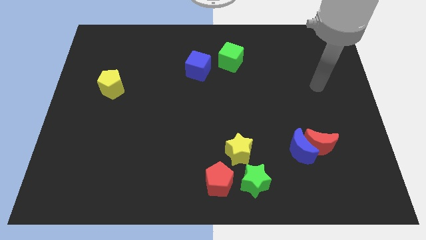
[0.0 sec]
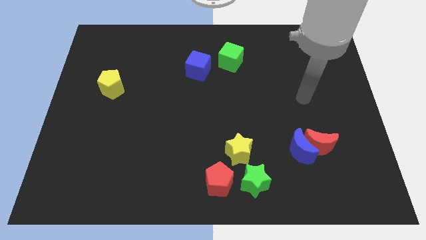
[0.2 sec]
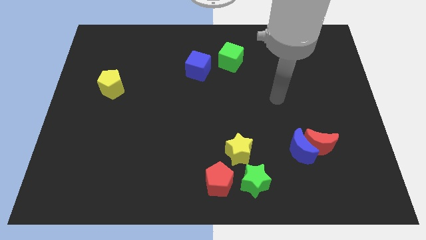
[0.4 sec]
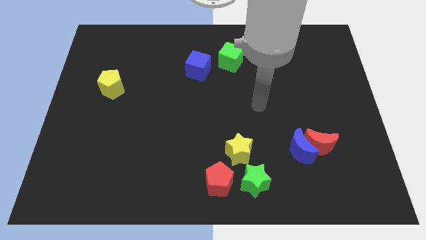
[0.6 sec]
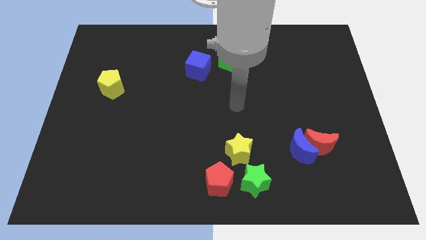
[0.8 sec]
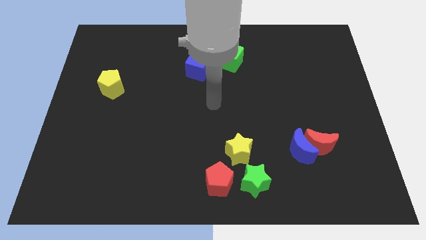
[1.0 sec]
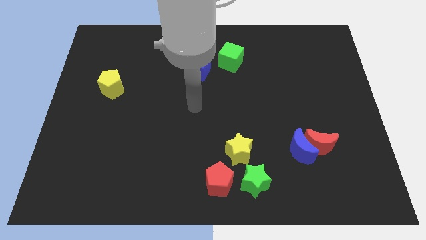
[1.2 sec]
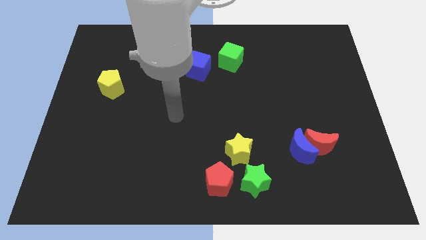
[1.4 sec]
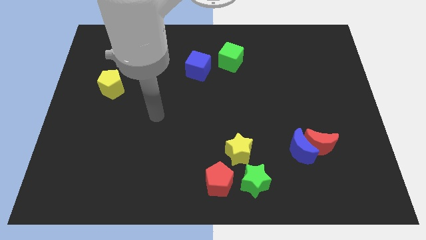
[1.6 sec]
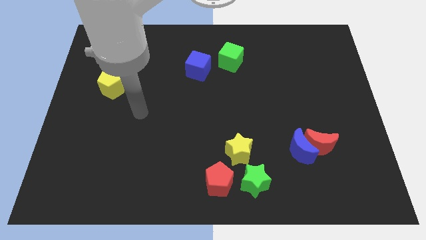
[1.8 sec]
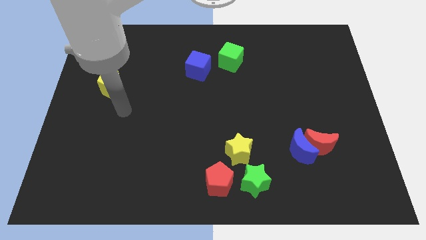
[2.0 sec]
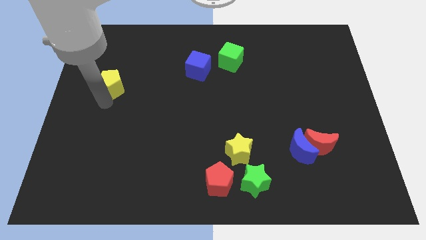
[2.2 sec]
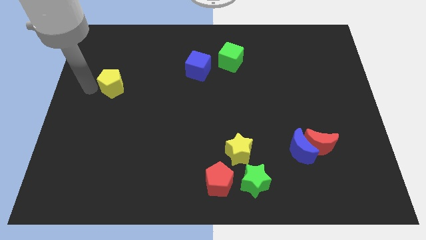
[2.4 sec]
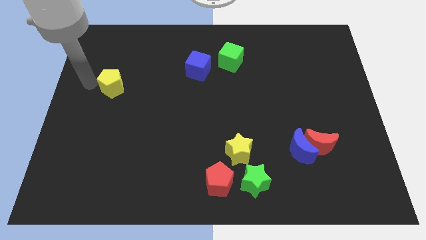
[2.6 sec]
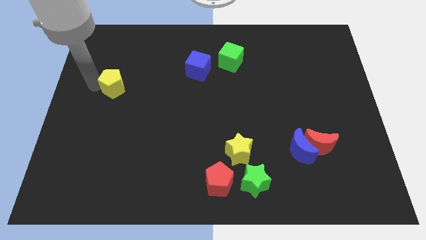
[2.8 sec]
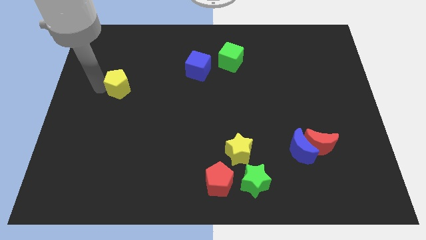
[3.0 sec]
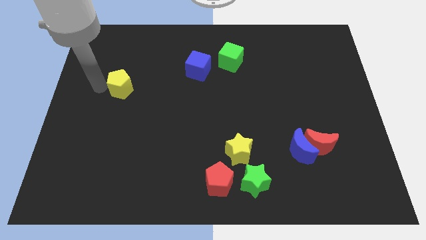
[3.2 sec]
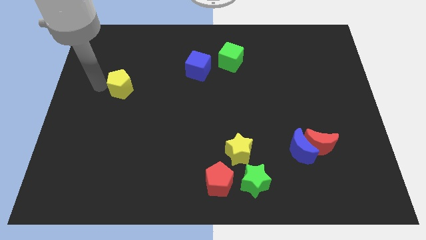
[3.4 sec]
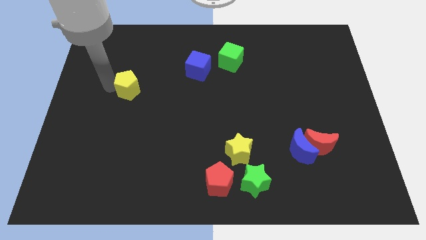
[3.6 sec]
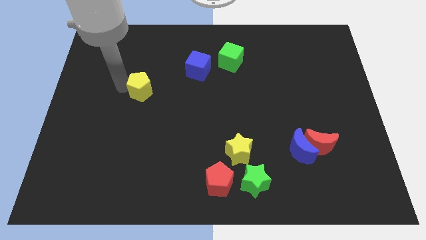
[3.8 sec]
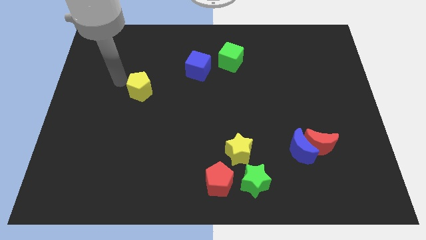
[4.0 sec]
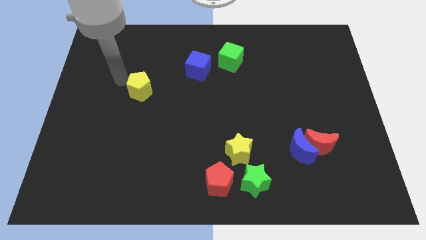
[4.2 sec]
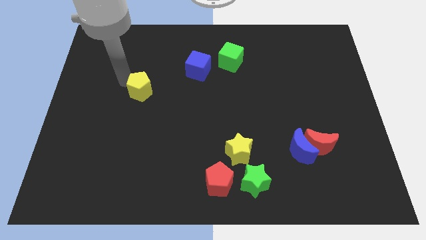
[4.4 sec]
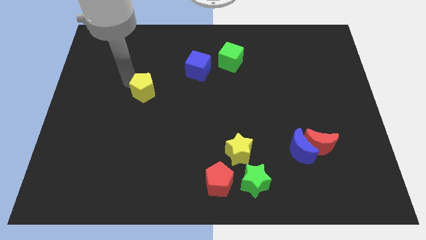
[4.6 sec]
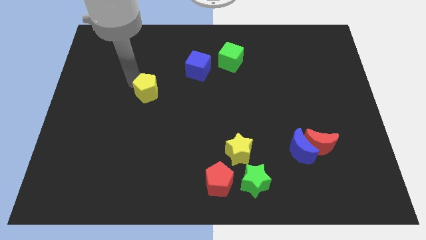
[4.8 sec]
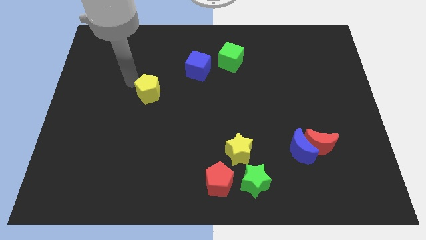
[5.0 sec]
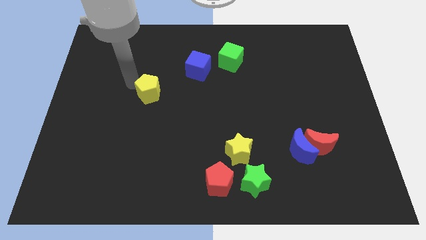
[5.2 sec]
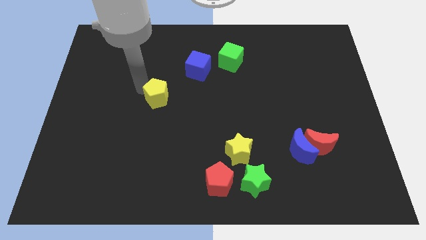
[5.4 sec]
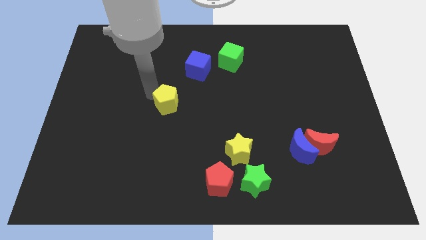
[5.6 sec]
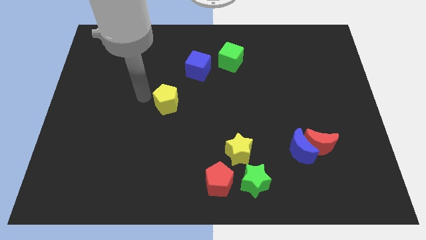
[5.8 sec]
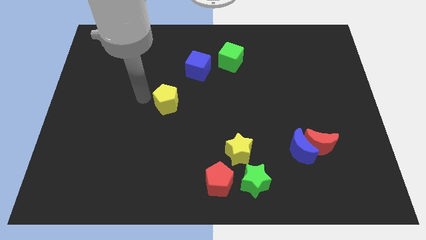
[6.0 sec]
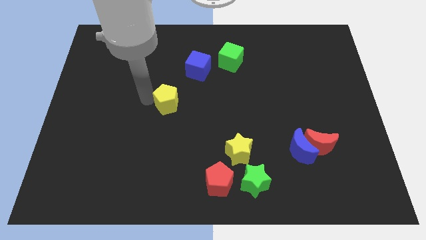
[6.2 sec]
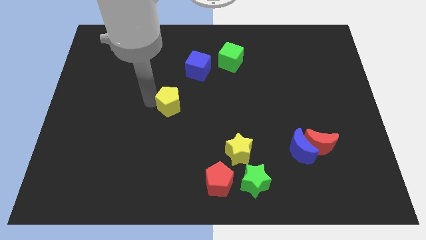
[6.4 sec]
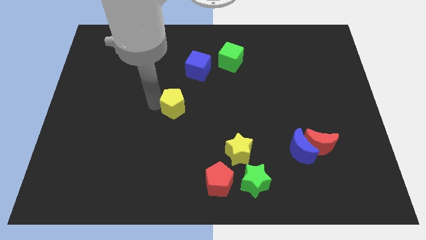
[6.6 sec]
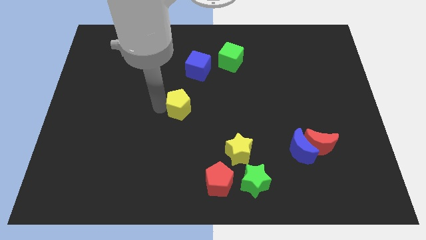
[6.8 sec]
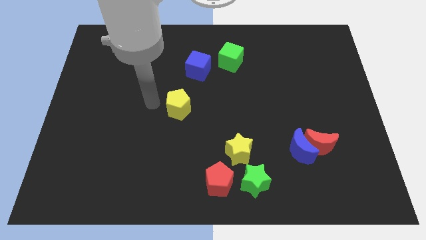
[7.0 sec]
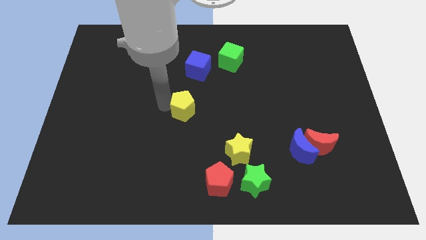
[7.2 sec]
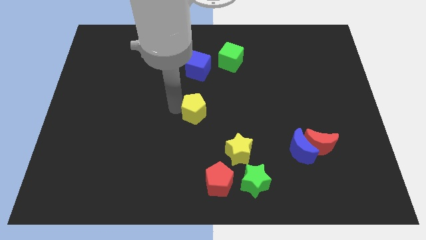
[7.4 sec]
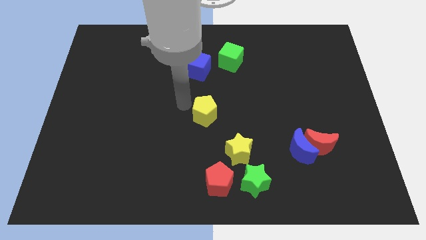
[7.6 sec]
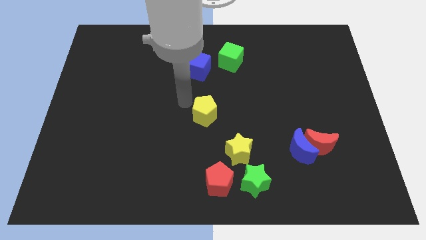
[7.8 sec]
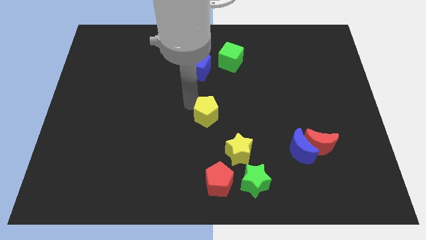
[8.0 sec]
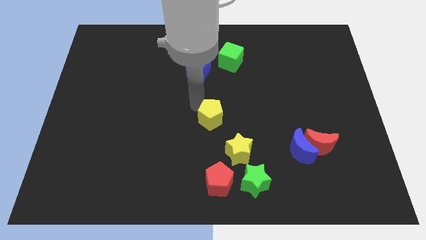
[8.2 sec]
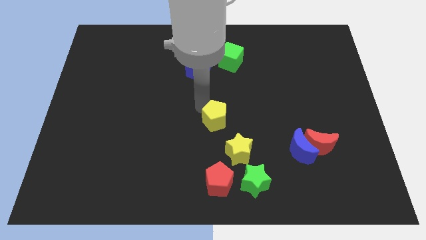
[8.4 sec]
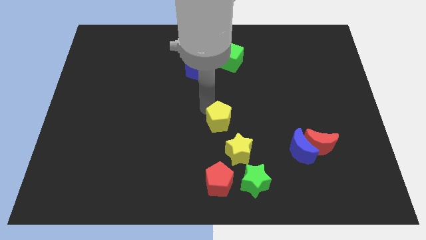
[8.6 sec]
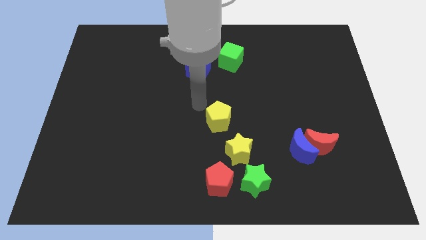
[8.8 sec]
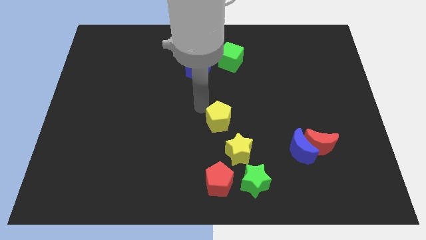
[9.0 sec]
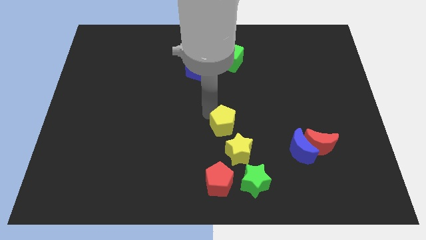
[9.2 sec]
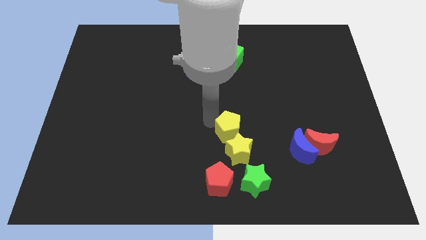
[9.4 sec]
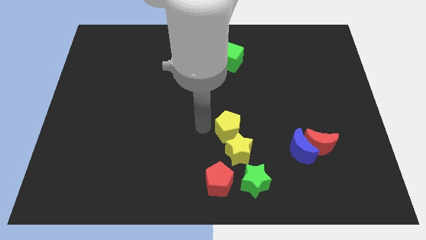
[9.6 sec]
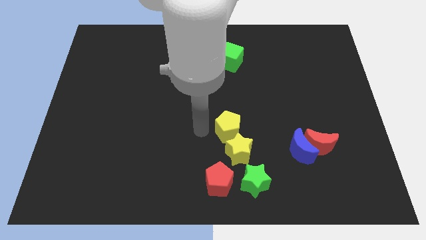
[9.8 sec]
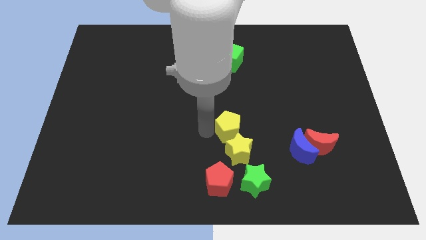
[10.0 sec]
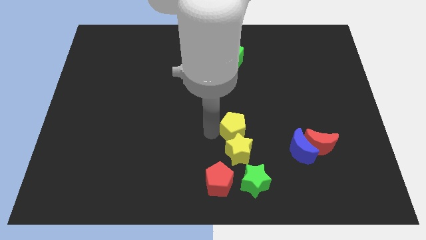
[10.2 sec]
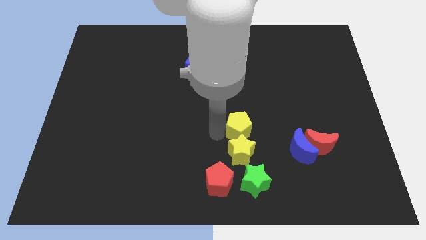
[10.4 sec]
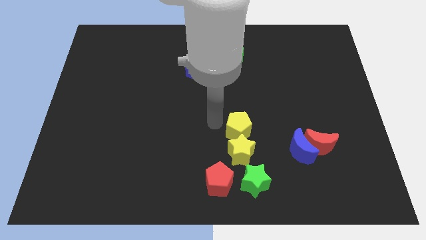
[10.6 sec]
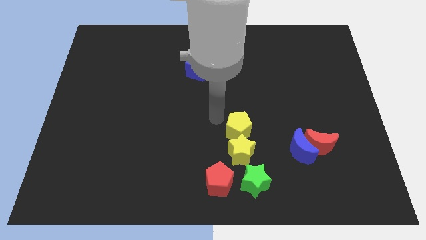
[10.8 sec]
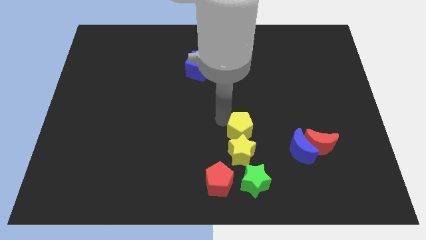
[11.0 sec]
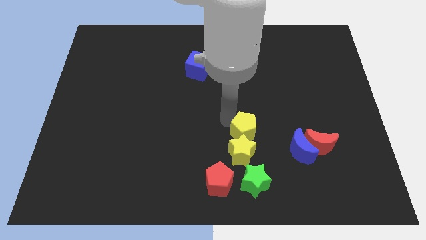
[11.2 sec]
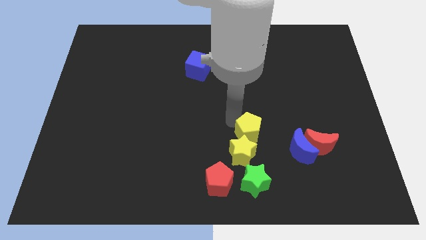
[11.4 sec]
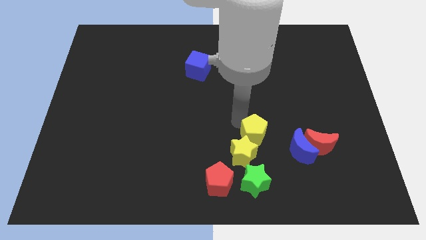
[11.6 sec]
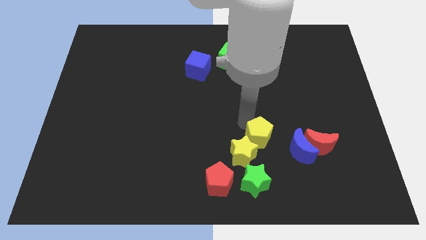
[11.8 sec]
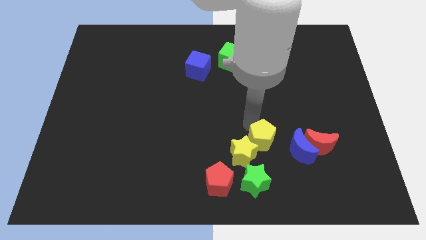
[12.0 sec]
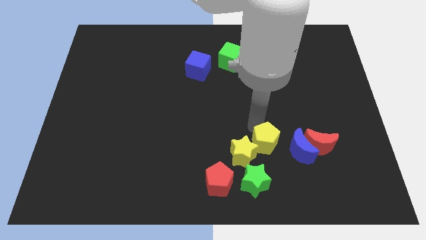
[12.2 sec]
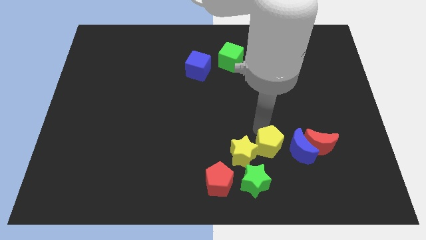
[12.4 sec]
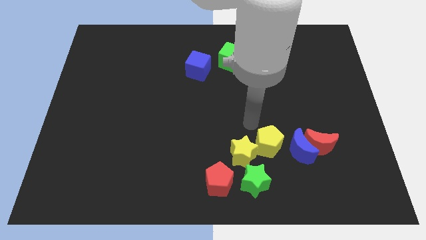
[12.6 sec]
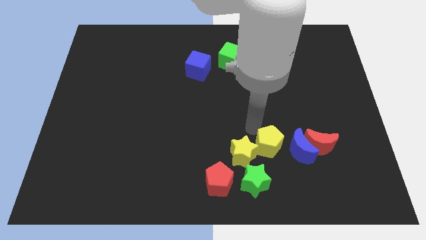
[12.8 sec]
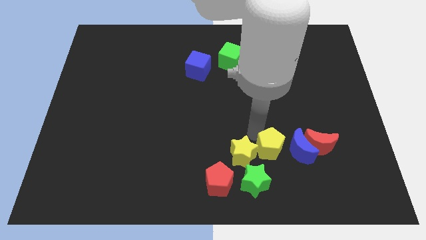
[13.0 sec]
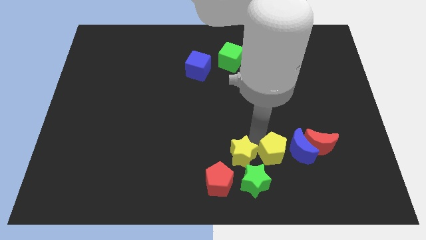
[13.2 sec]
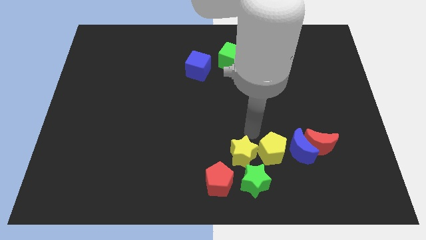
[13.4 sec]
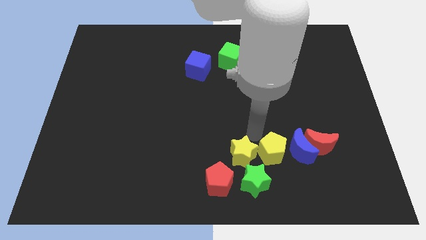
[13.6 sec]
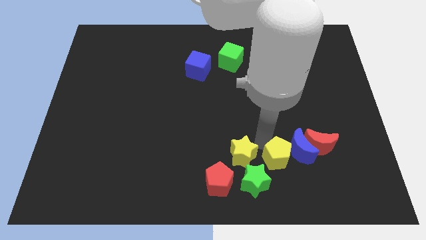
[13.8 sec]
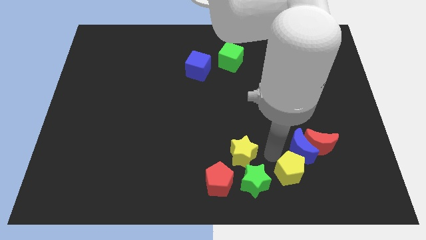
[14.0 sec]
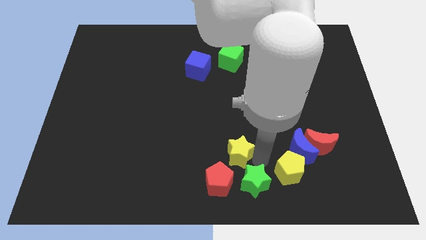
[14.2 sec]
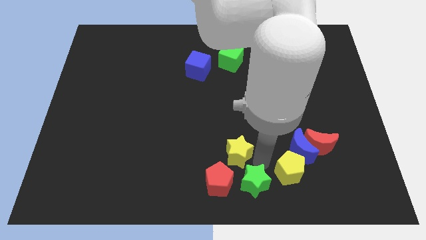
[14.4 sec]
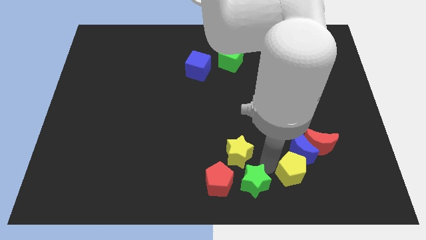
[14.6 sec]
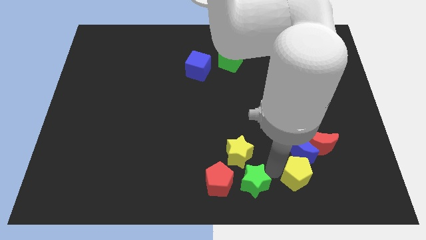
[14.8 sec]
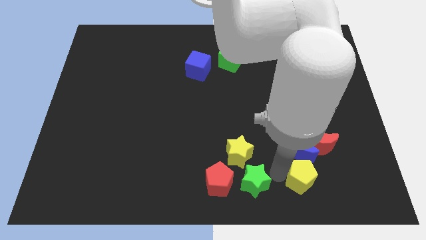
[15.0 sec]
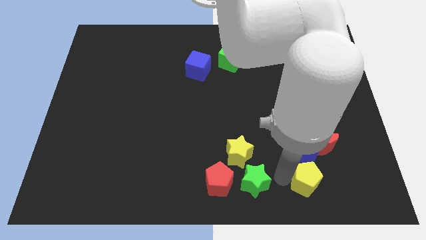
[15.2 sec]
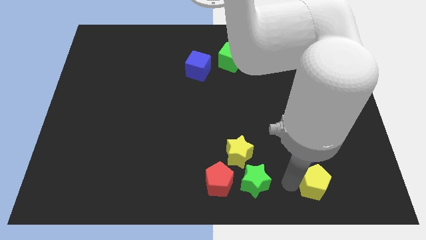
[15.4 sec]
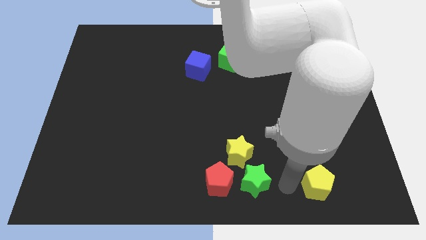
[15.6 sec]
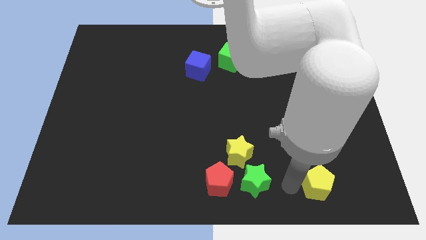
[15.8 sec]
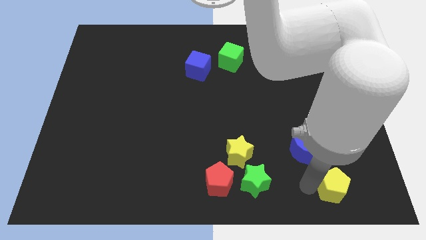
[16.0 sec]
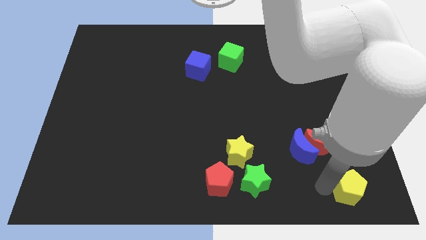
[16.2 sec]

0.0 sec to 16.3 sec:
push the yellow pentagon to the lower right corner
